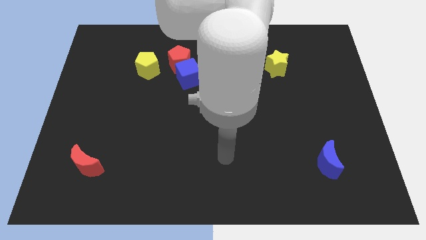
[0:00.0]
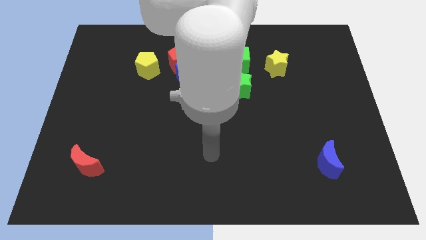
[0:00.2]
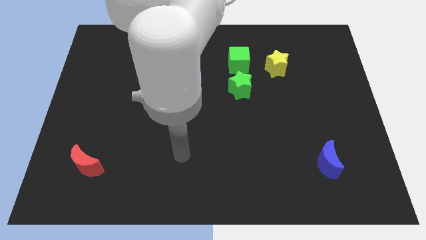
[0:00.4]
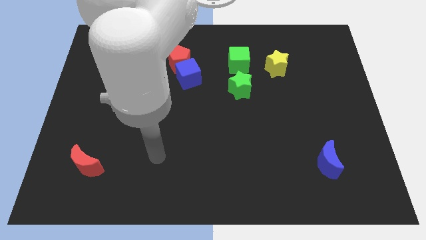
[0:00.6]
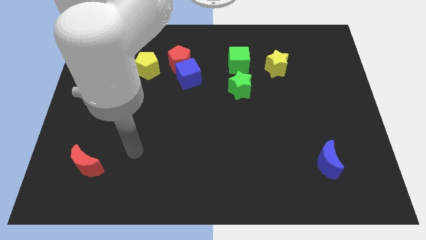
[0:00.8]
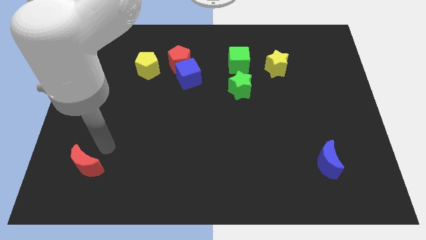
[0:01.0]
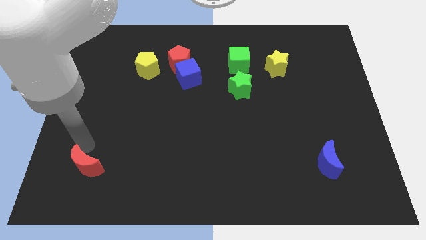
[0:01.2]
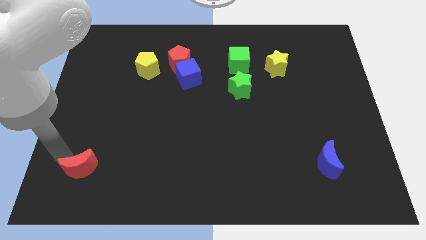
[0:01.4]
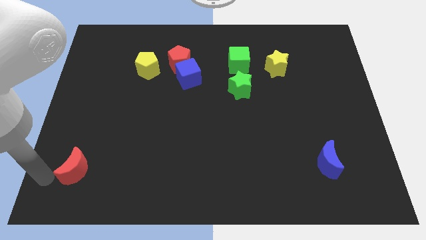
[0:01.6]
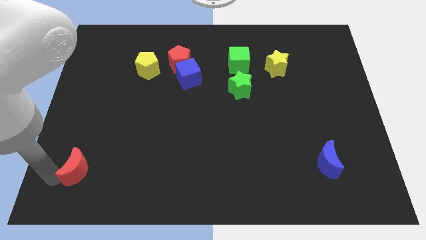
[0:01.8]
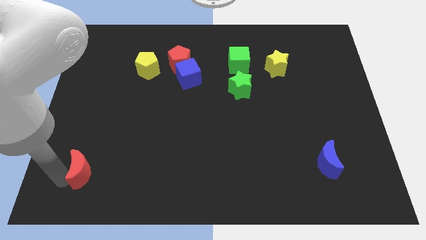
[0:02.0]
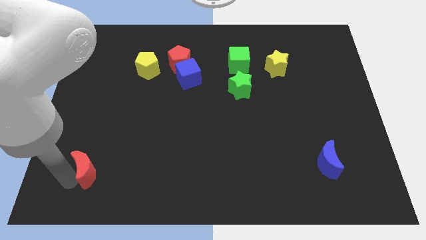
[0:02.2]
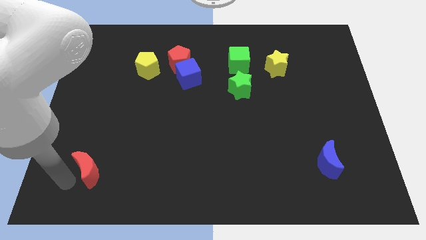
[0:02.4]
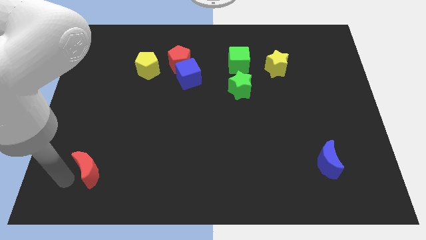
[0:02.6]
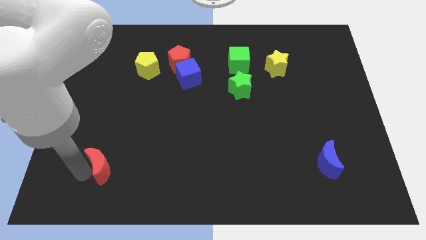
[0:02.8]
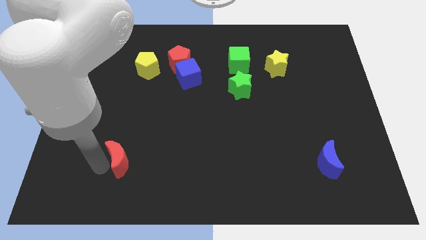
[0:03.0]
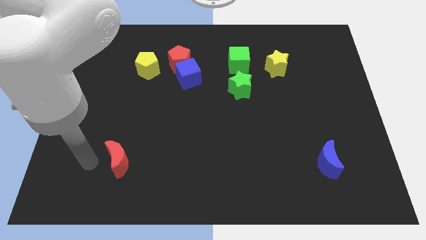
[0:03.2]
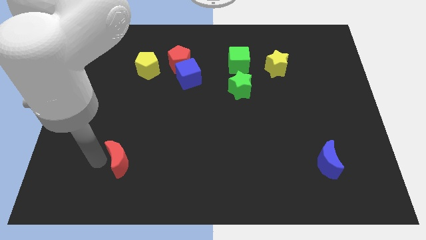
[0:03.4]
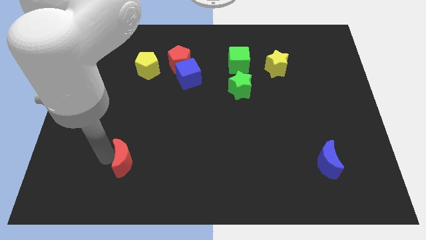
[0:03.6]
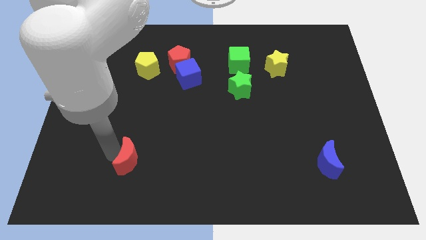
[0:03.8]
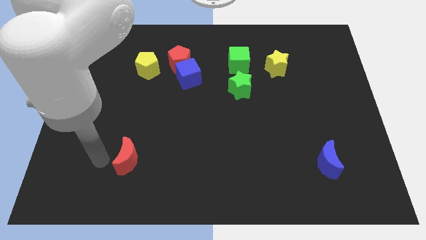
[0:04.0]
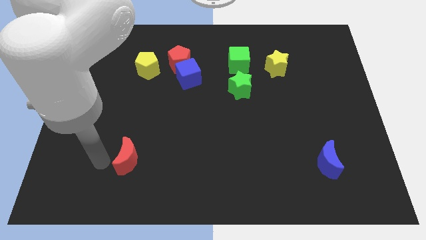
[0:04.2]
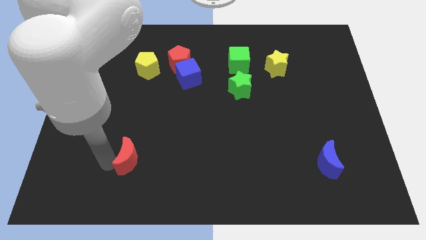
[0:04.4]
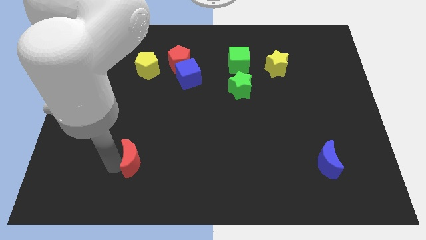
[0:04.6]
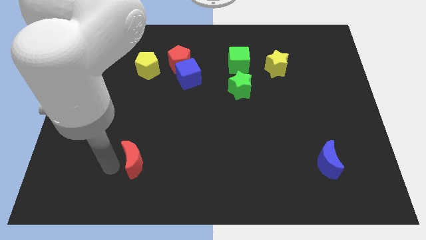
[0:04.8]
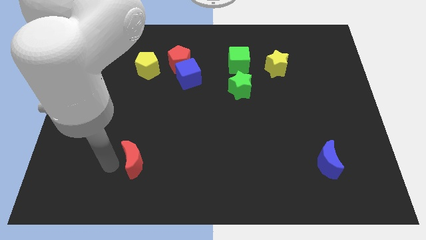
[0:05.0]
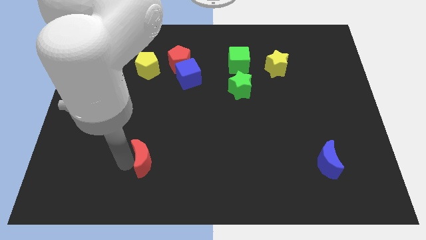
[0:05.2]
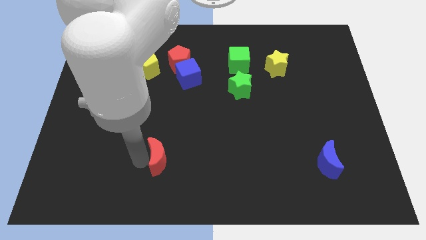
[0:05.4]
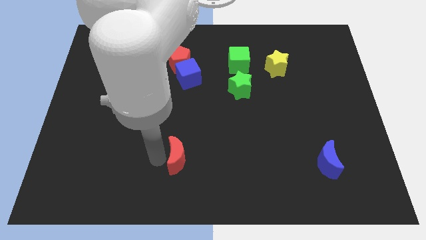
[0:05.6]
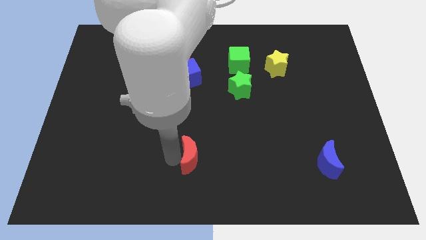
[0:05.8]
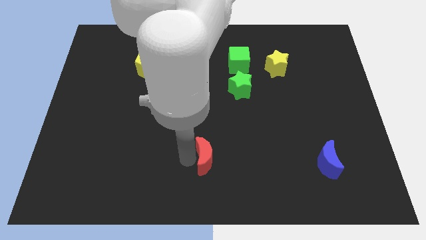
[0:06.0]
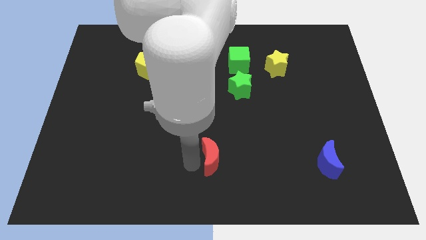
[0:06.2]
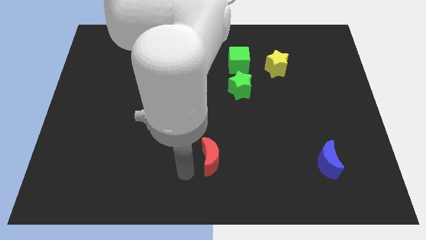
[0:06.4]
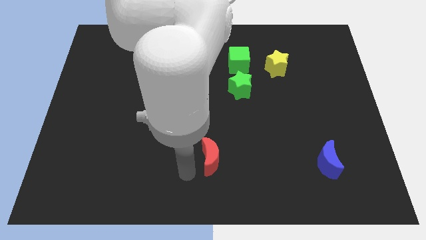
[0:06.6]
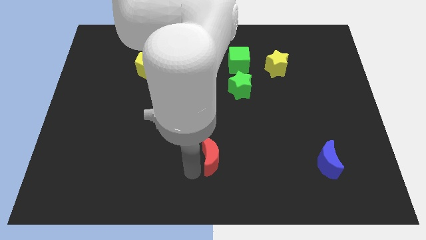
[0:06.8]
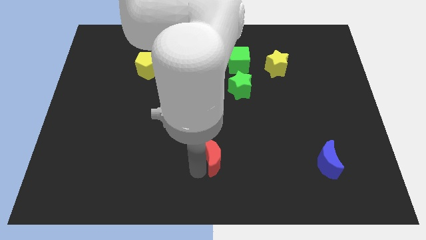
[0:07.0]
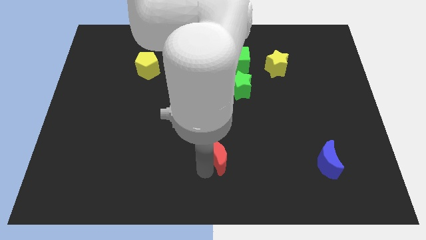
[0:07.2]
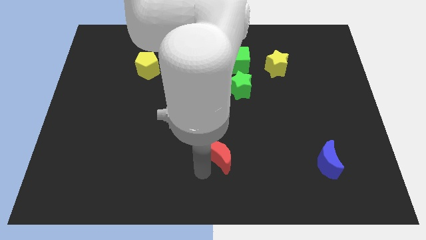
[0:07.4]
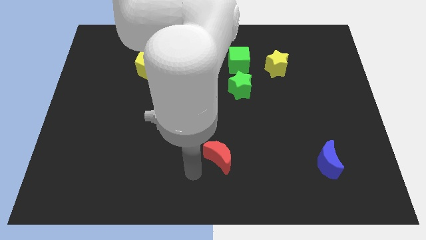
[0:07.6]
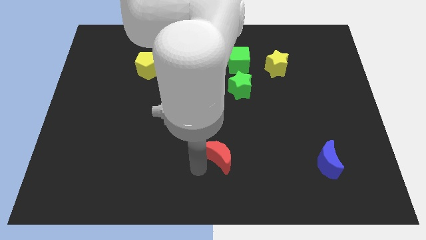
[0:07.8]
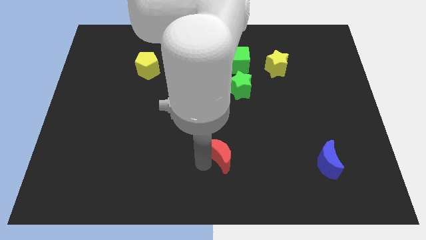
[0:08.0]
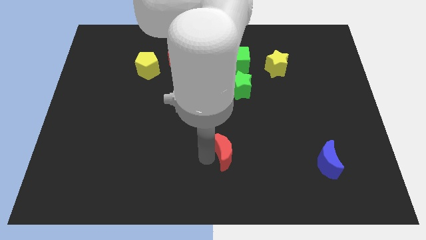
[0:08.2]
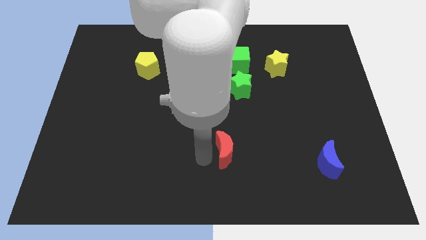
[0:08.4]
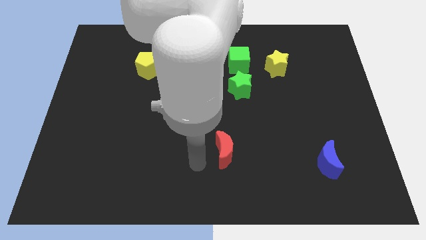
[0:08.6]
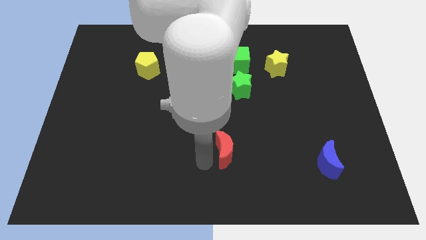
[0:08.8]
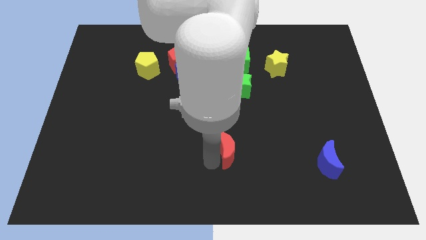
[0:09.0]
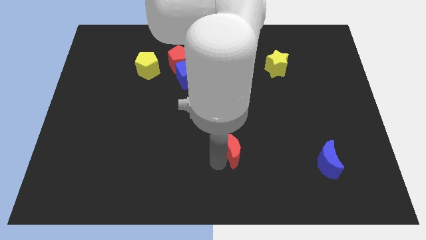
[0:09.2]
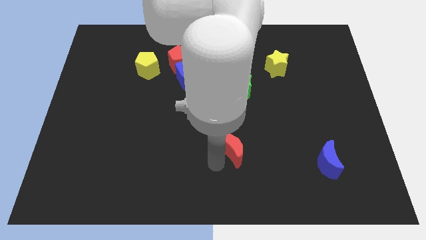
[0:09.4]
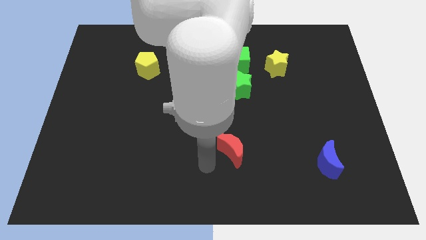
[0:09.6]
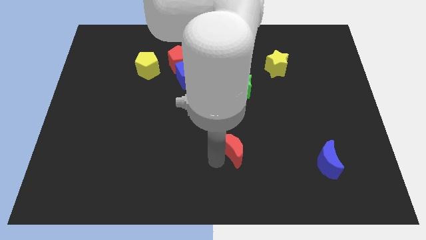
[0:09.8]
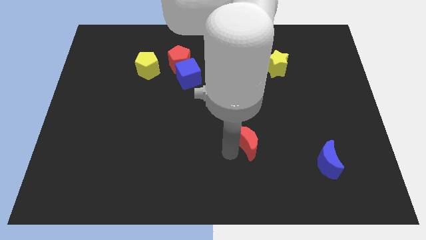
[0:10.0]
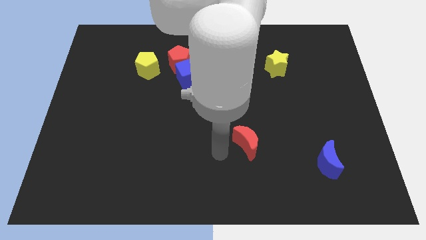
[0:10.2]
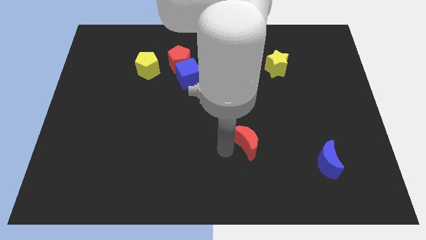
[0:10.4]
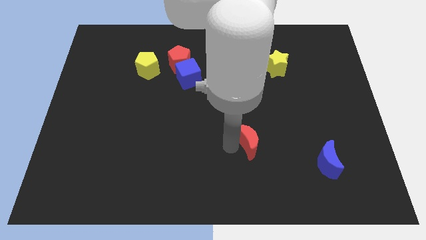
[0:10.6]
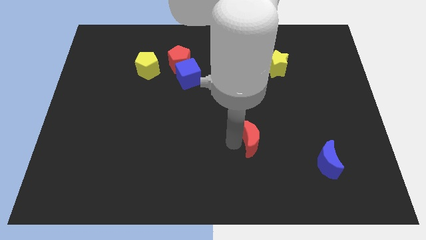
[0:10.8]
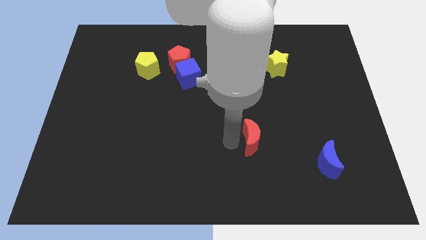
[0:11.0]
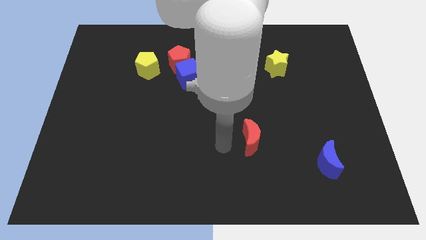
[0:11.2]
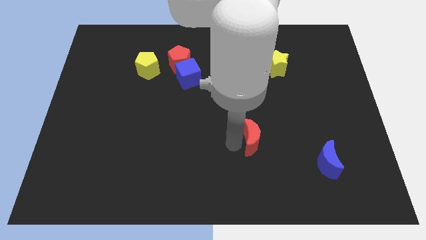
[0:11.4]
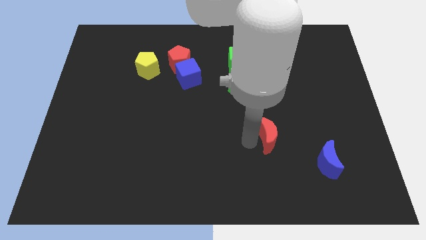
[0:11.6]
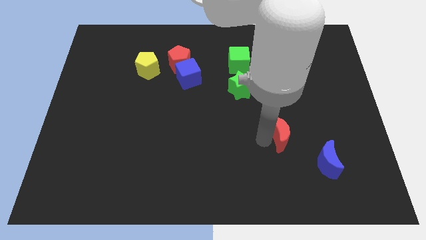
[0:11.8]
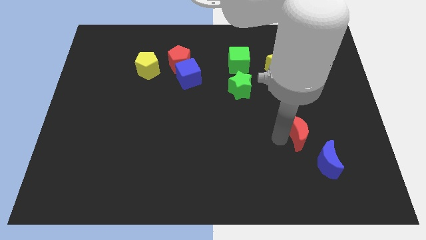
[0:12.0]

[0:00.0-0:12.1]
put the red moon to the top side of the blue moon
